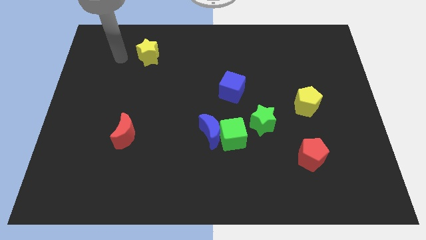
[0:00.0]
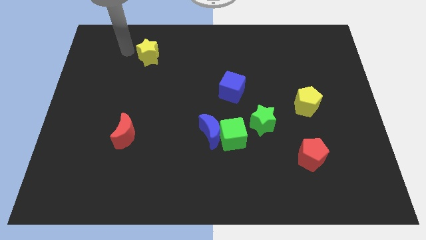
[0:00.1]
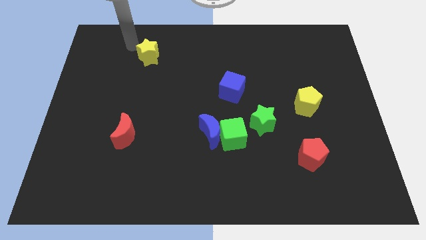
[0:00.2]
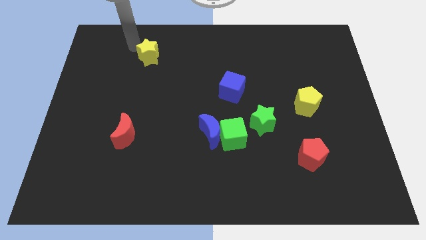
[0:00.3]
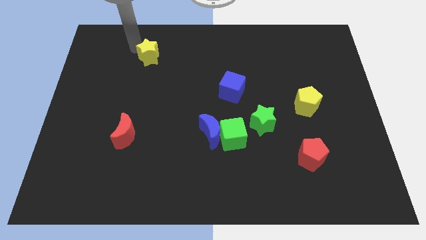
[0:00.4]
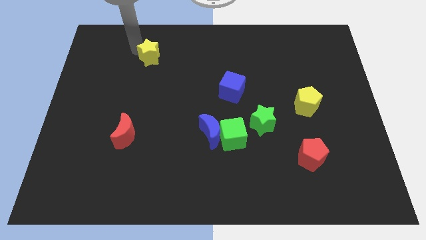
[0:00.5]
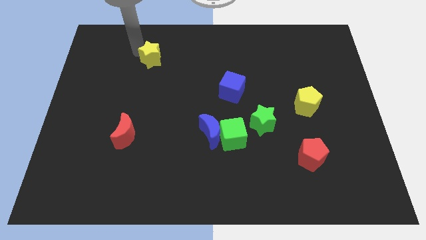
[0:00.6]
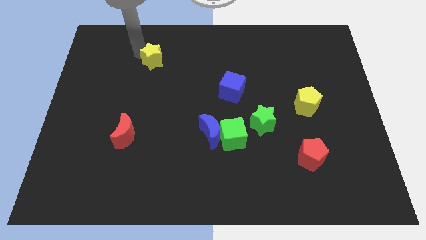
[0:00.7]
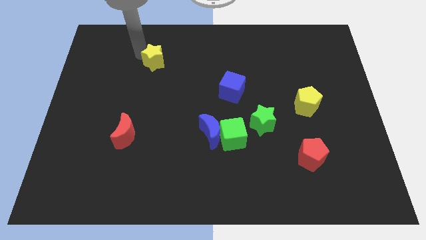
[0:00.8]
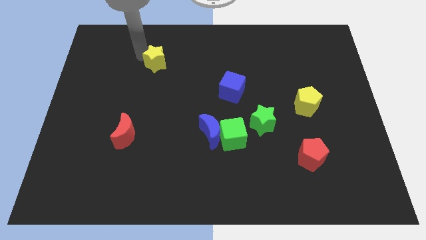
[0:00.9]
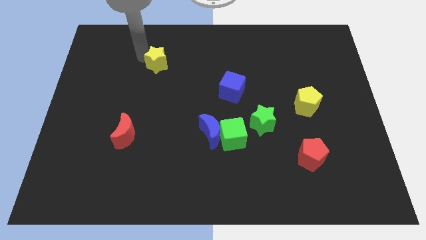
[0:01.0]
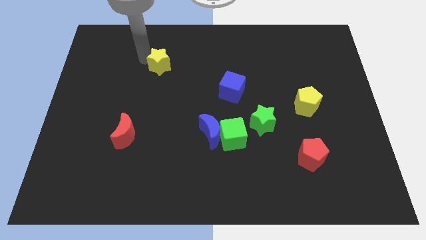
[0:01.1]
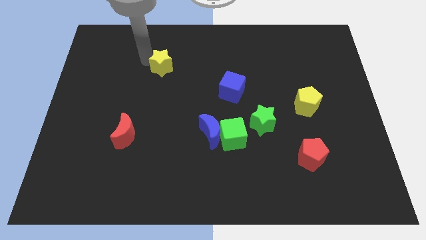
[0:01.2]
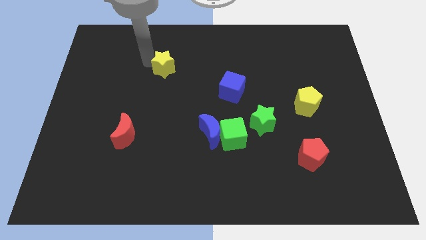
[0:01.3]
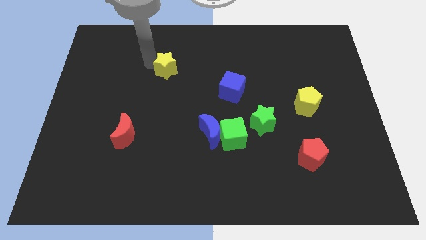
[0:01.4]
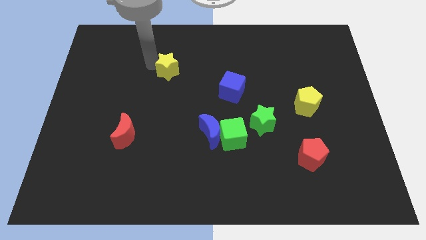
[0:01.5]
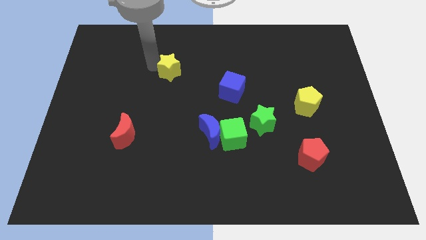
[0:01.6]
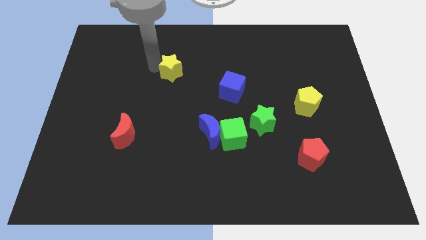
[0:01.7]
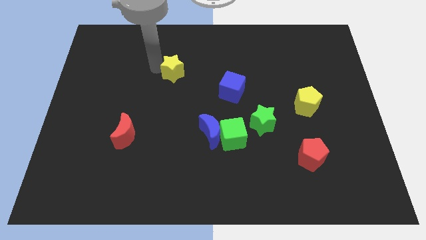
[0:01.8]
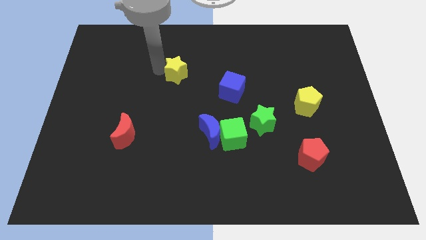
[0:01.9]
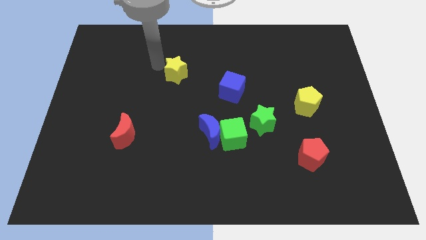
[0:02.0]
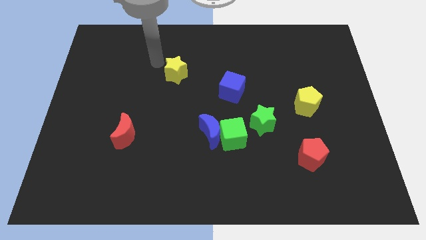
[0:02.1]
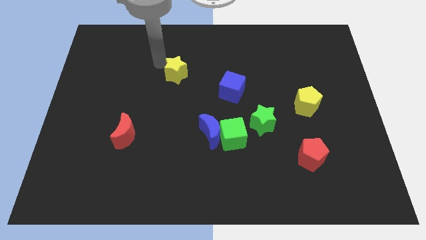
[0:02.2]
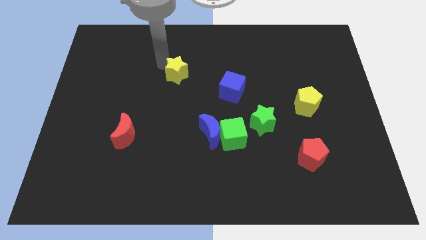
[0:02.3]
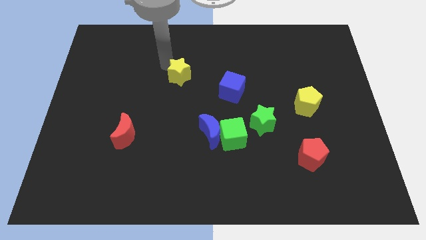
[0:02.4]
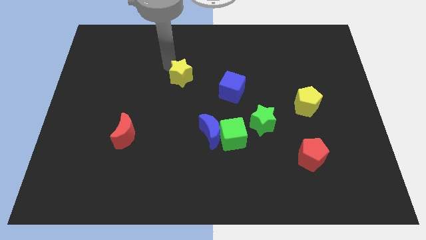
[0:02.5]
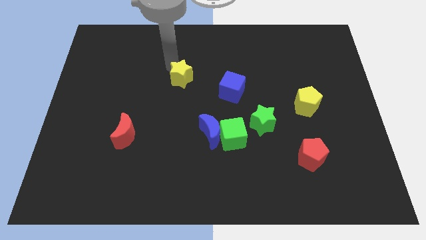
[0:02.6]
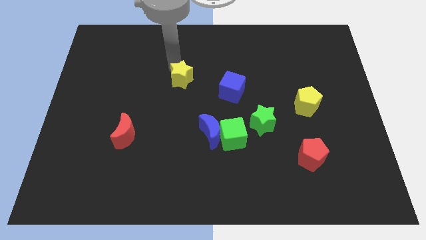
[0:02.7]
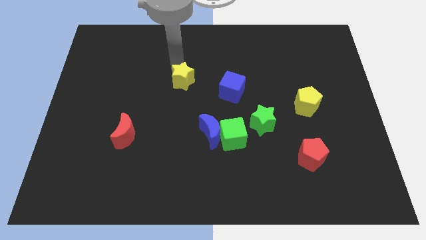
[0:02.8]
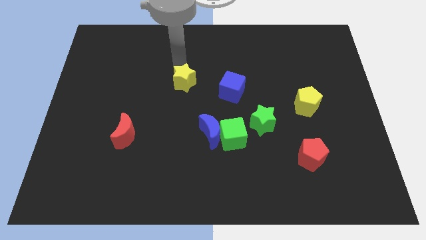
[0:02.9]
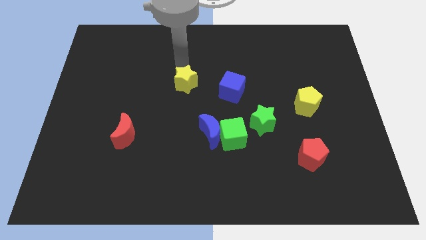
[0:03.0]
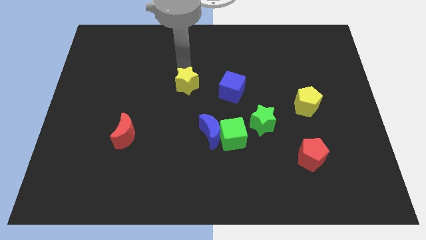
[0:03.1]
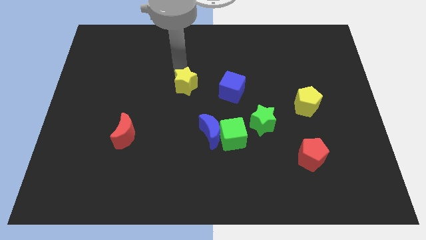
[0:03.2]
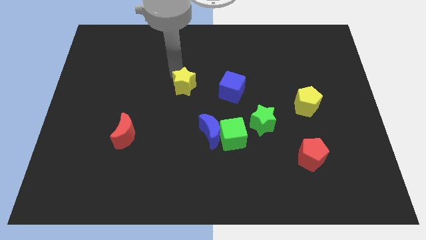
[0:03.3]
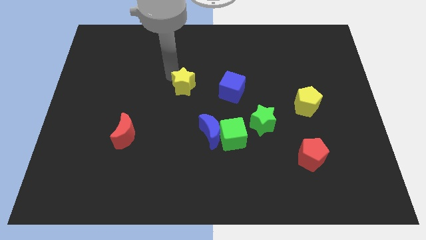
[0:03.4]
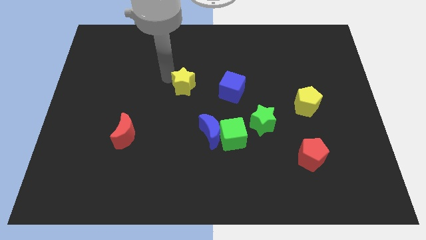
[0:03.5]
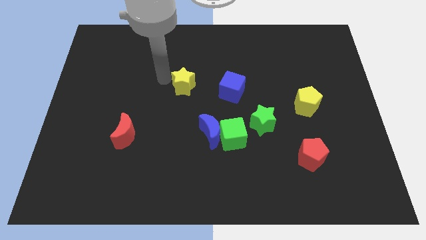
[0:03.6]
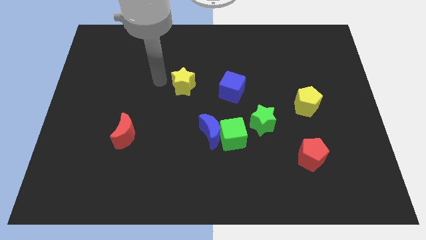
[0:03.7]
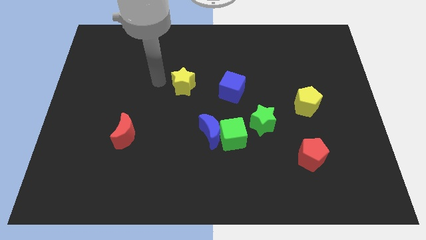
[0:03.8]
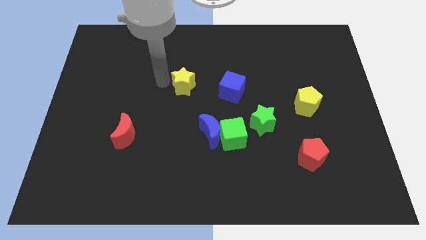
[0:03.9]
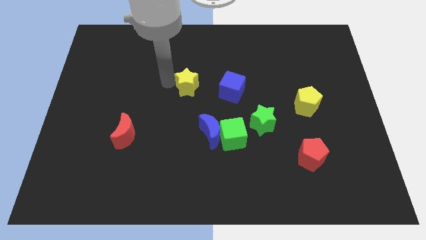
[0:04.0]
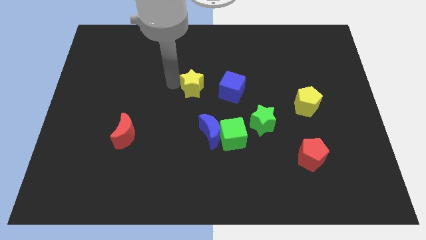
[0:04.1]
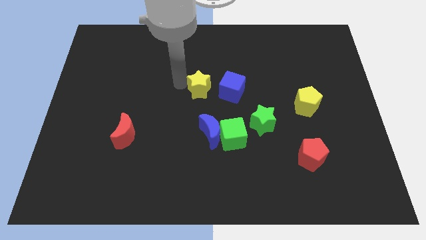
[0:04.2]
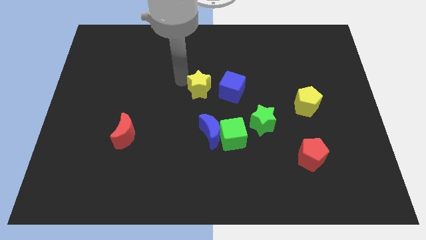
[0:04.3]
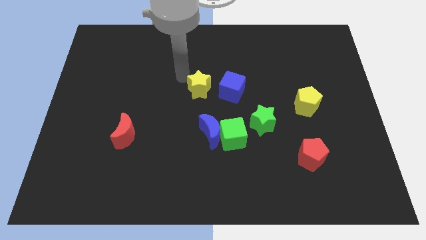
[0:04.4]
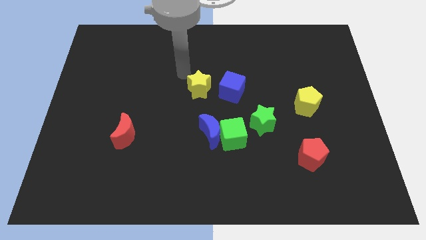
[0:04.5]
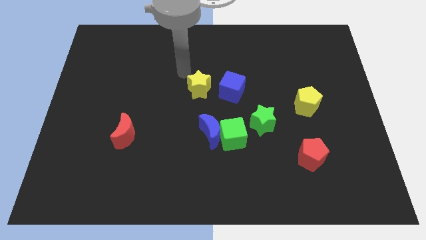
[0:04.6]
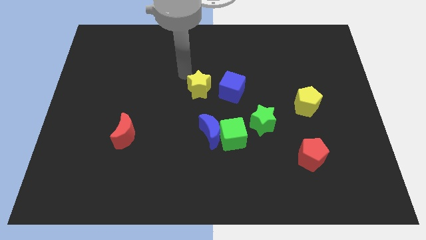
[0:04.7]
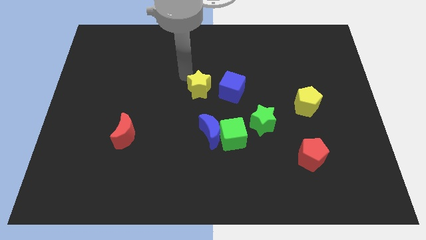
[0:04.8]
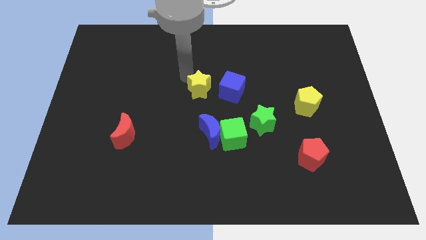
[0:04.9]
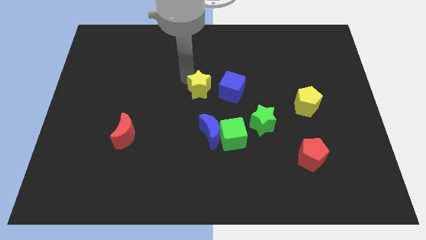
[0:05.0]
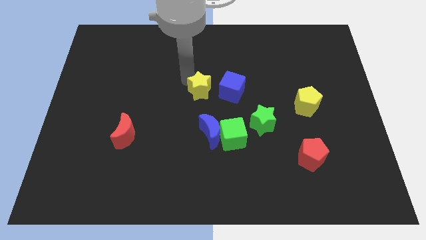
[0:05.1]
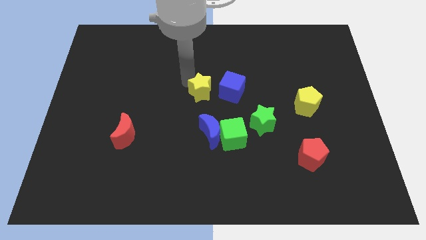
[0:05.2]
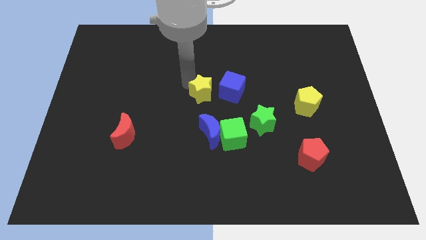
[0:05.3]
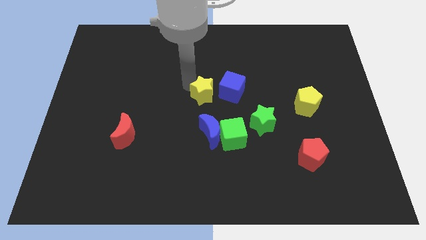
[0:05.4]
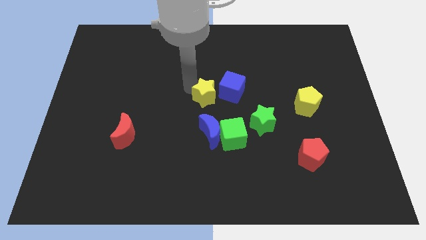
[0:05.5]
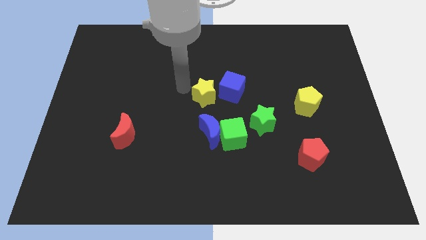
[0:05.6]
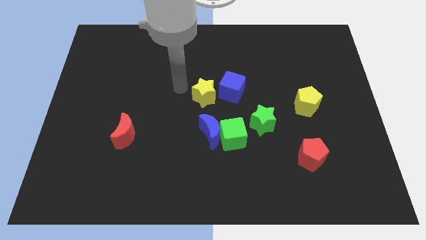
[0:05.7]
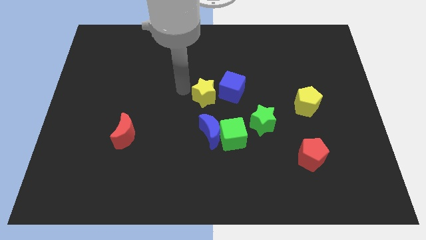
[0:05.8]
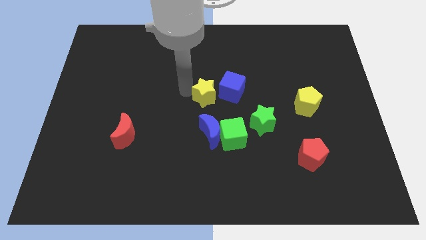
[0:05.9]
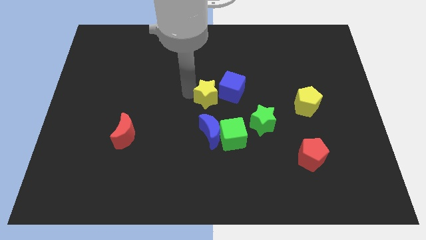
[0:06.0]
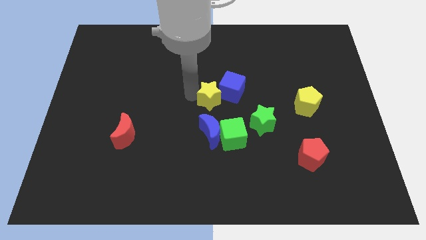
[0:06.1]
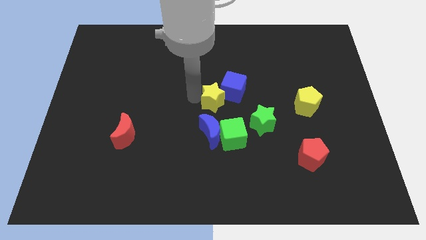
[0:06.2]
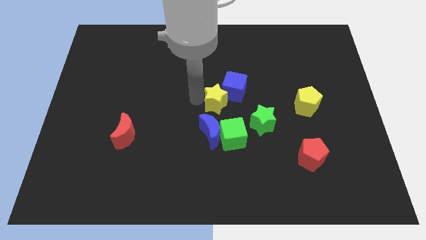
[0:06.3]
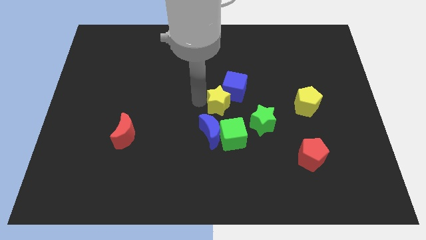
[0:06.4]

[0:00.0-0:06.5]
put the yellow star to the top left side of the green star
